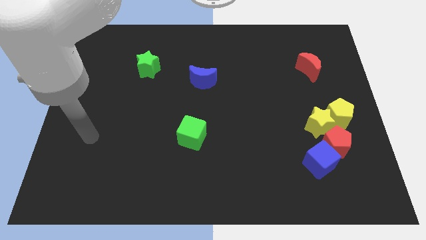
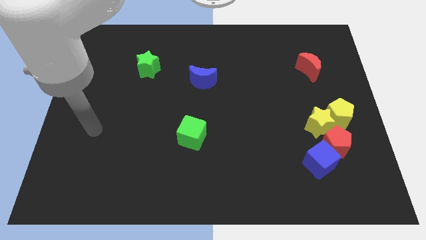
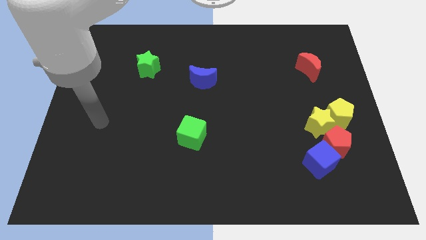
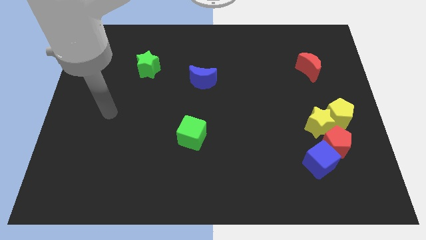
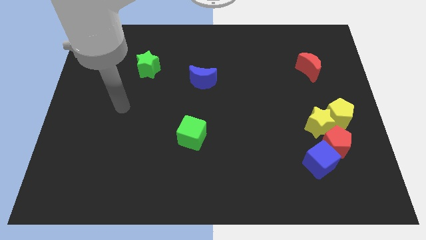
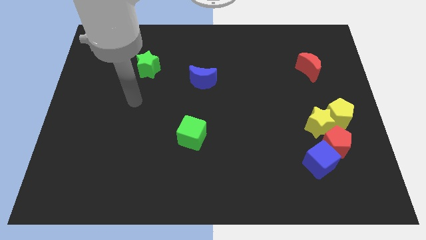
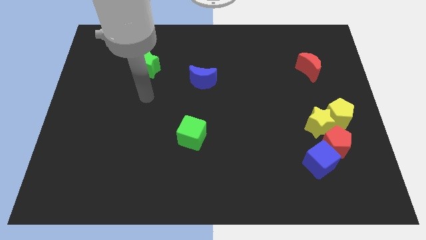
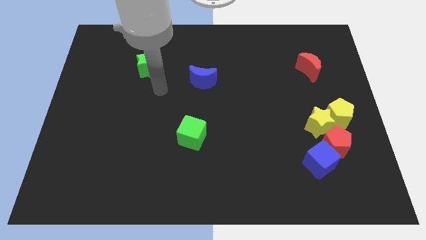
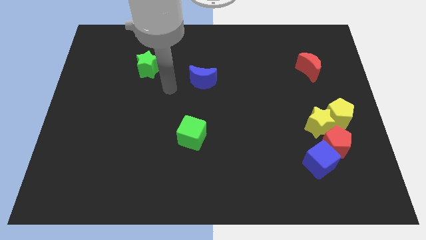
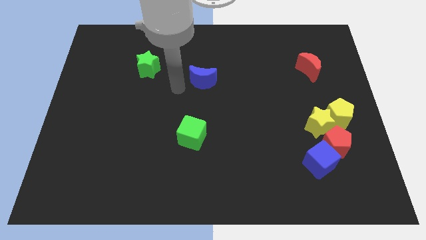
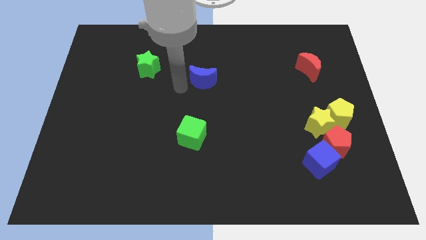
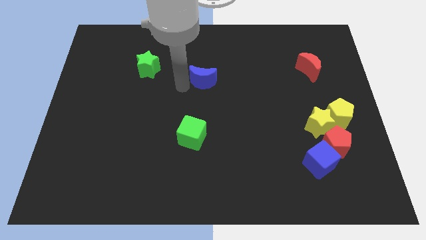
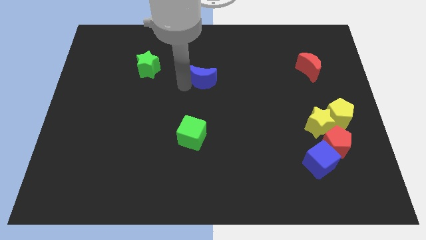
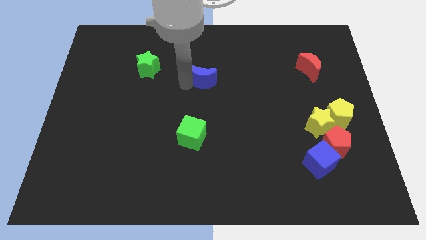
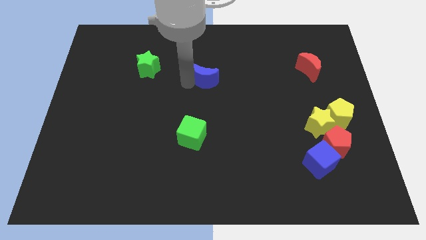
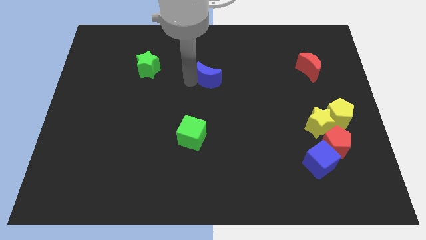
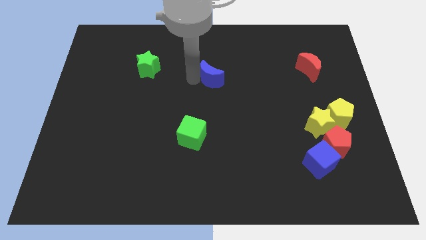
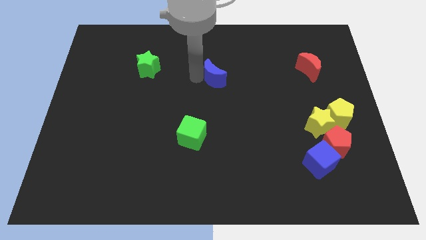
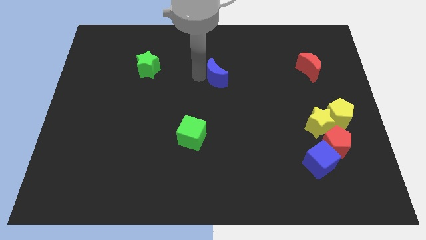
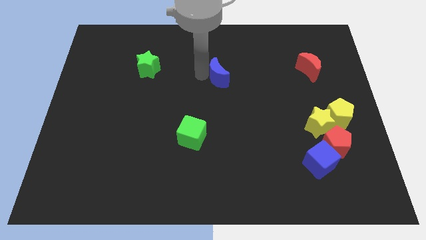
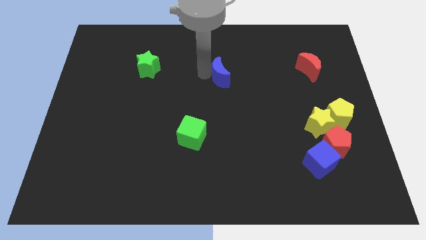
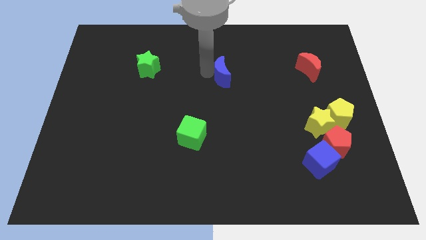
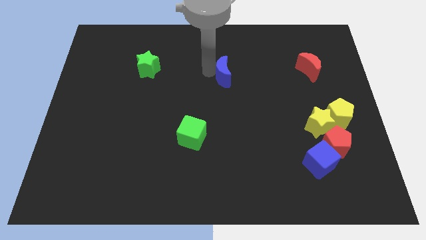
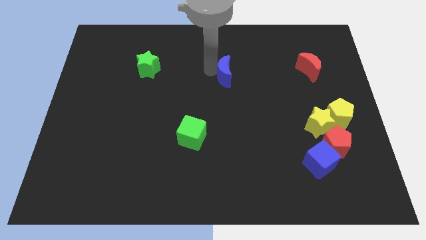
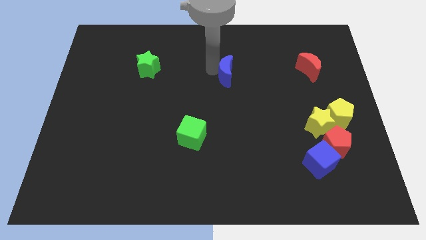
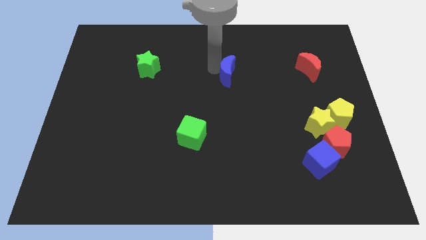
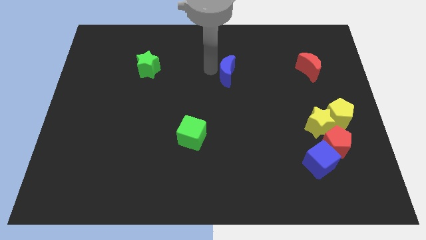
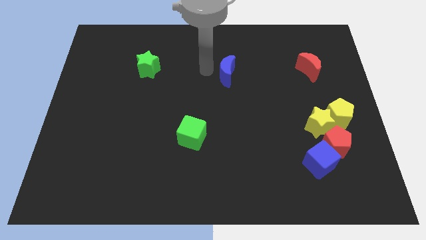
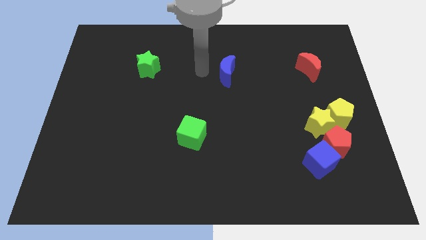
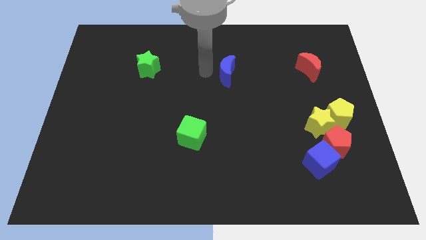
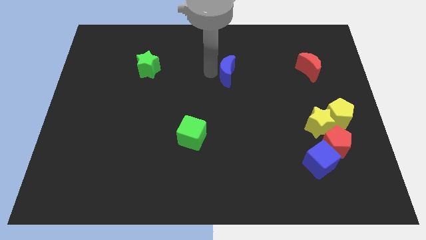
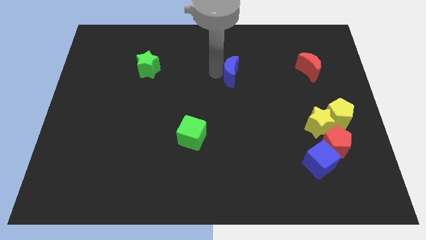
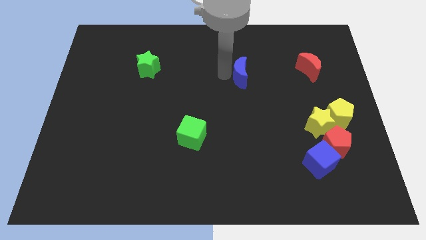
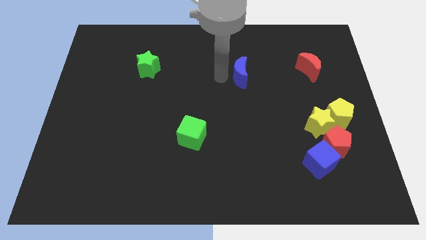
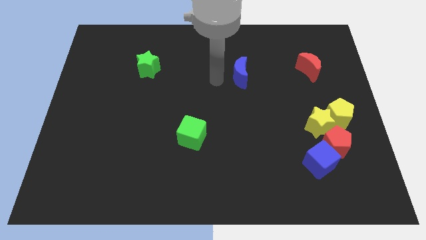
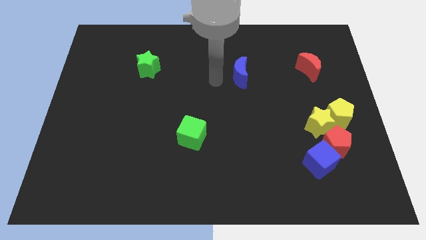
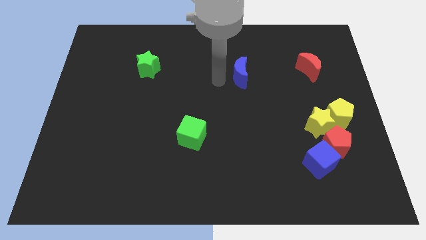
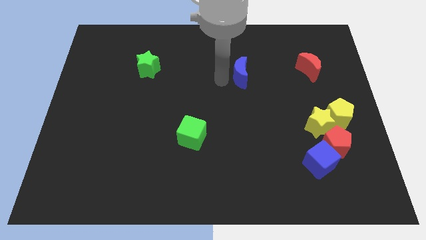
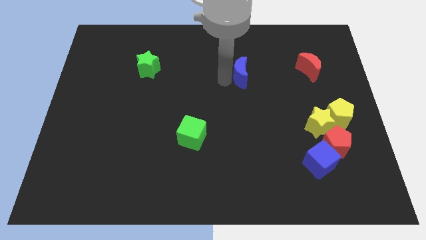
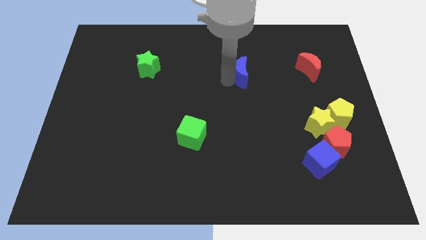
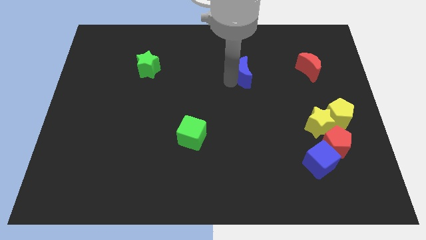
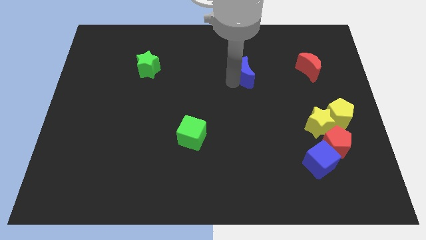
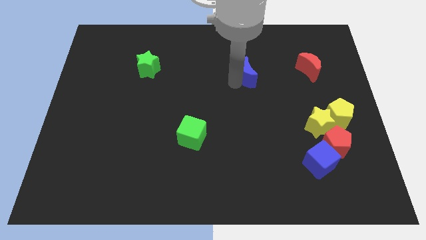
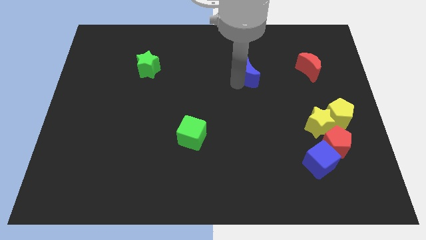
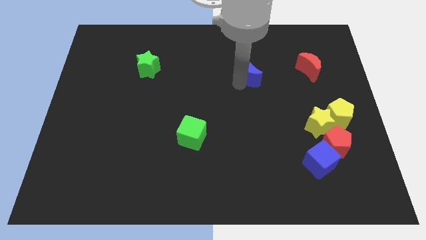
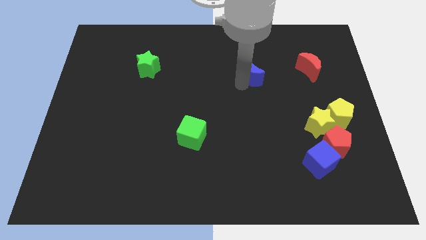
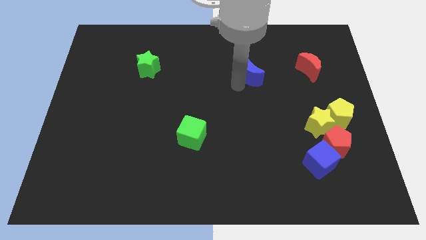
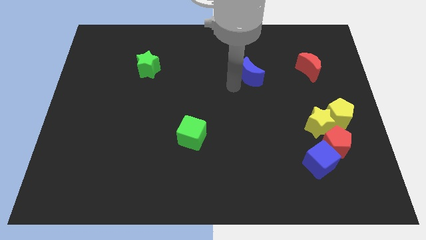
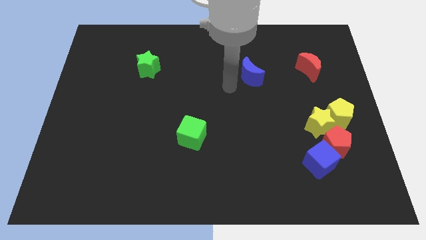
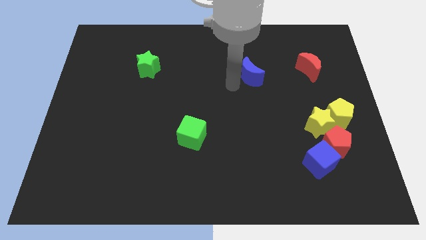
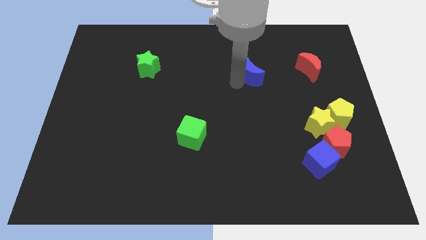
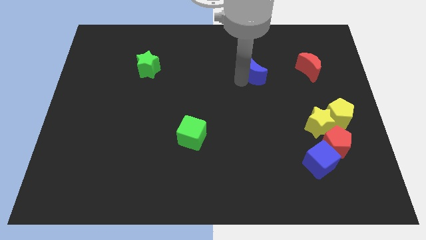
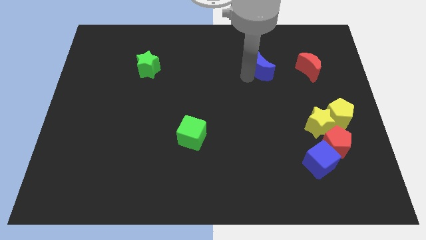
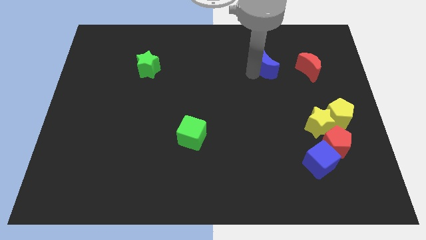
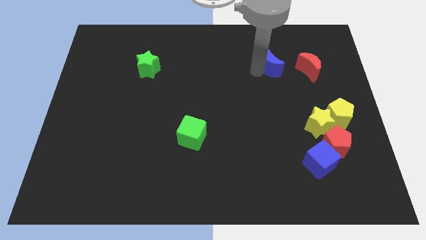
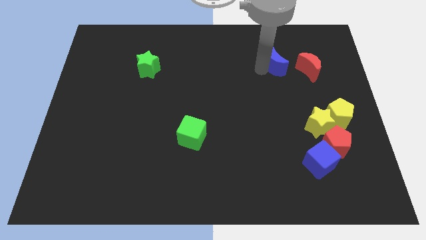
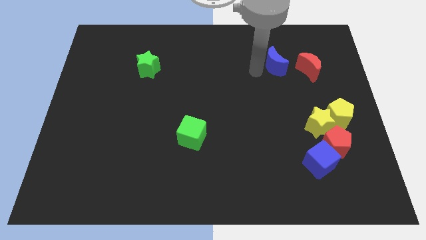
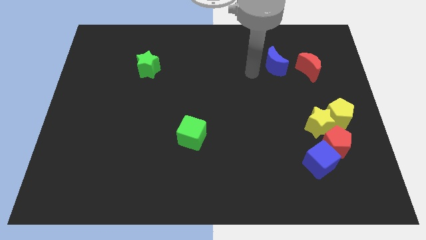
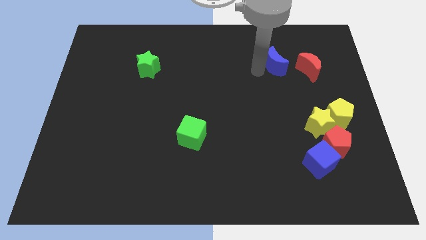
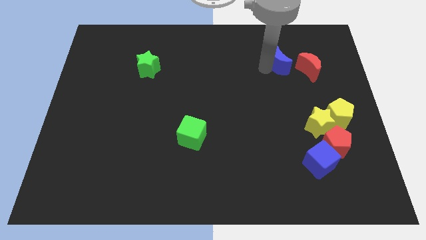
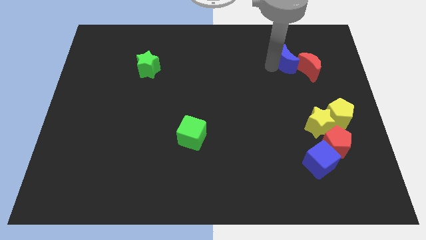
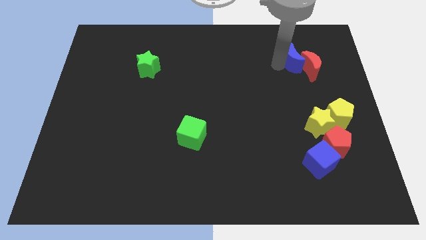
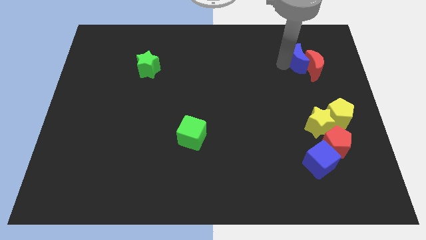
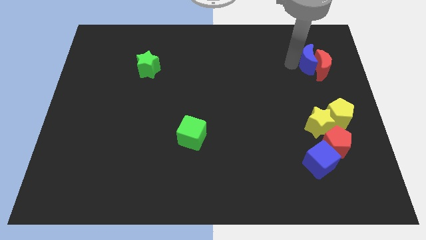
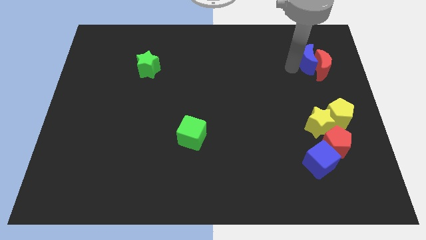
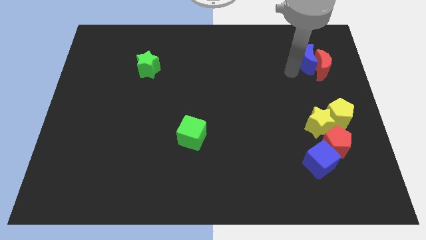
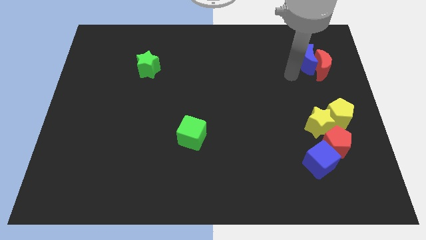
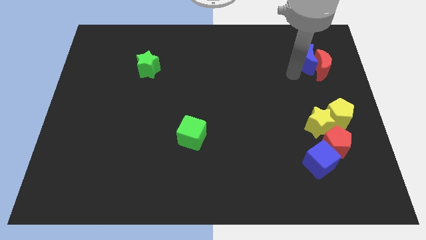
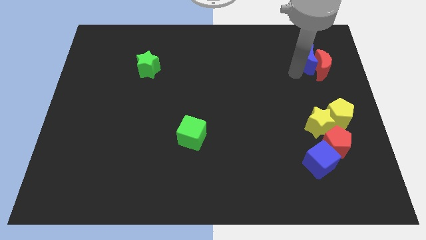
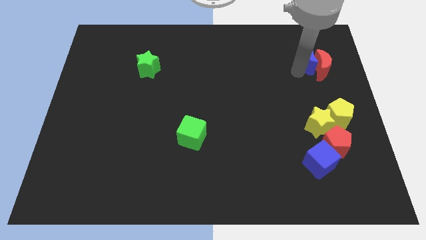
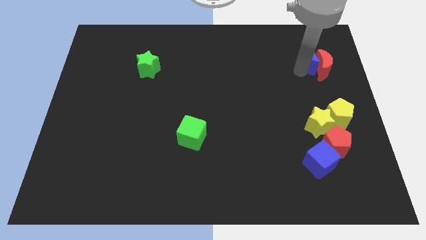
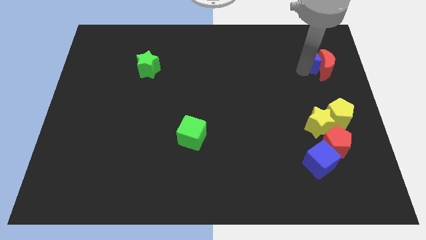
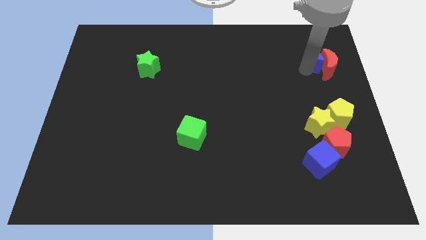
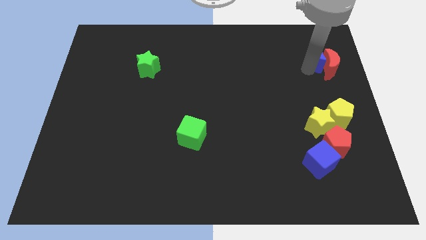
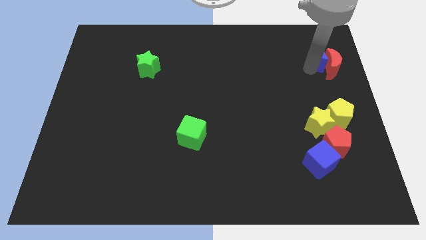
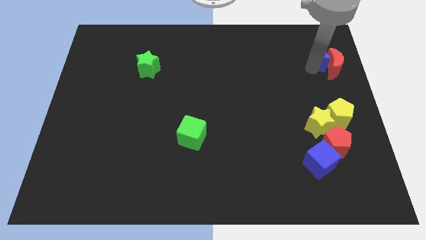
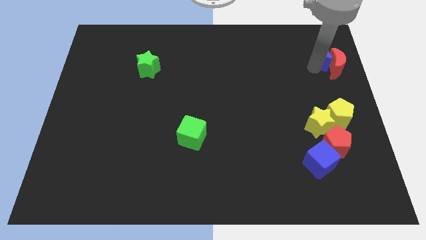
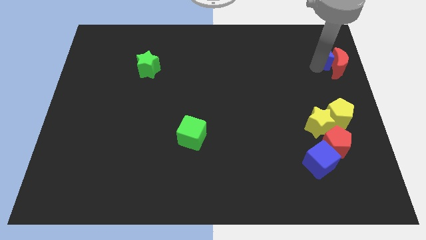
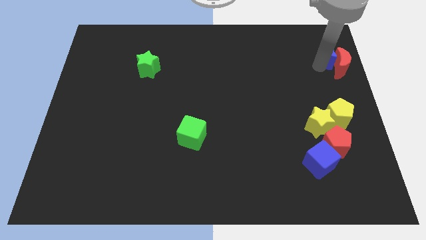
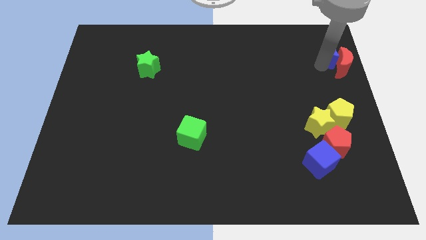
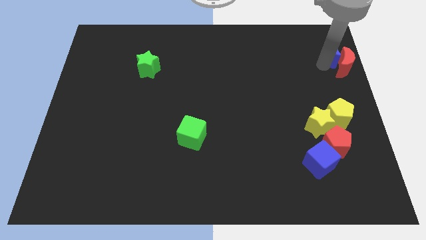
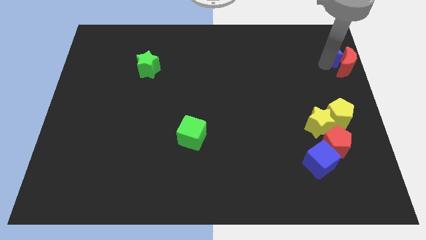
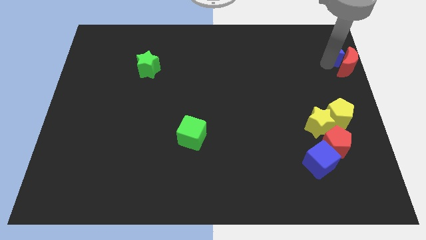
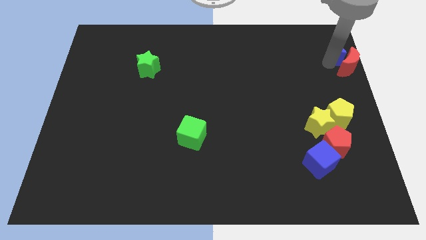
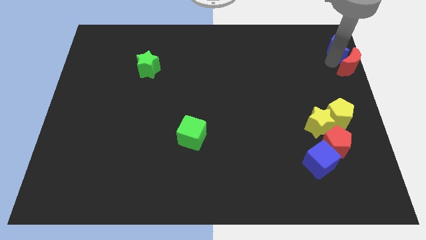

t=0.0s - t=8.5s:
push the blue moon to the upper right corner
